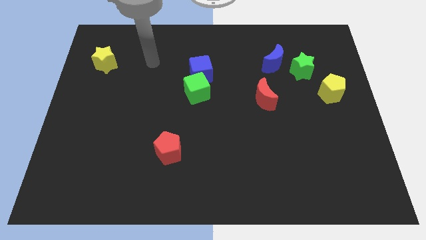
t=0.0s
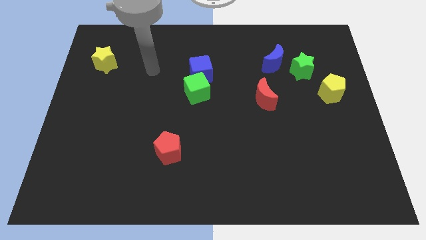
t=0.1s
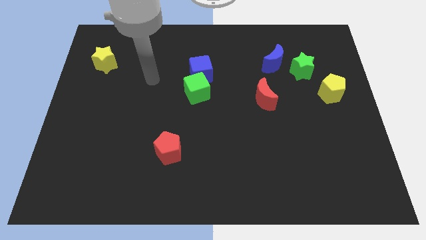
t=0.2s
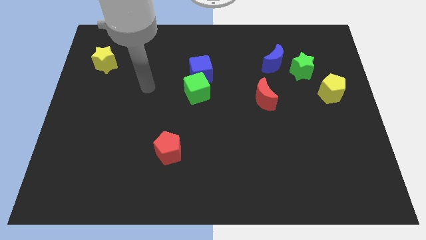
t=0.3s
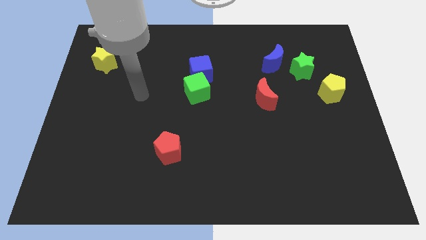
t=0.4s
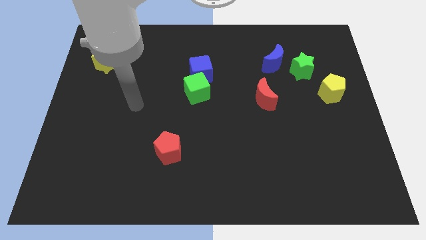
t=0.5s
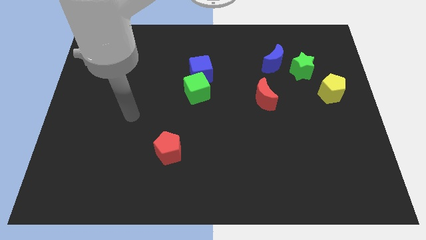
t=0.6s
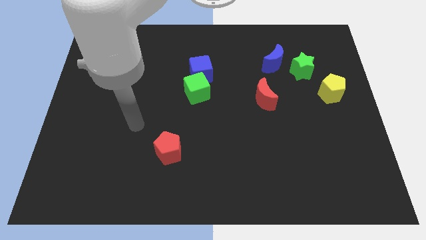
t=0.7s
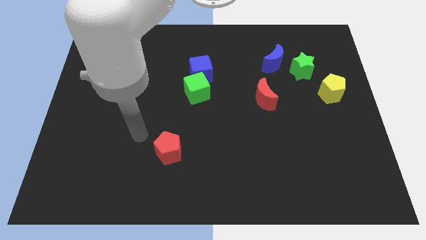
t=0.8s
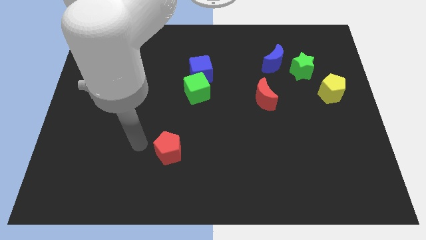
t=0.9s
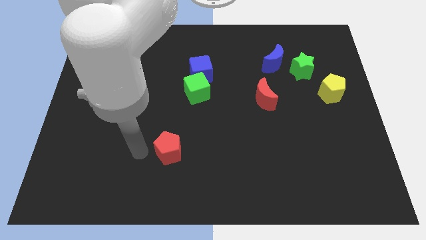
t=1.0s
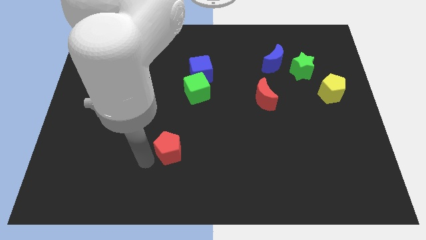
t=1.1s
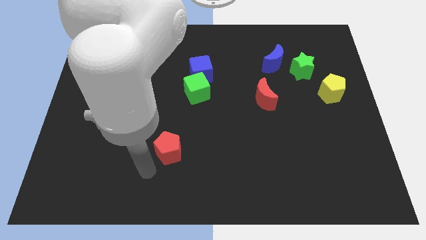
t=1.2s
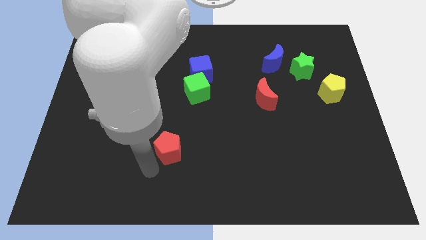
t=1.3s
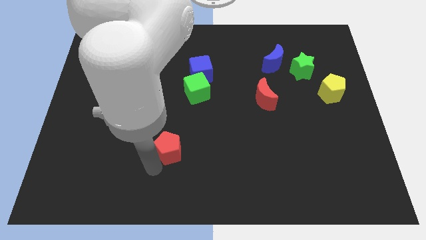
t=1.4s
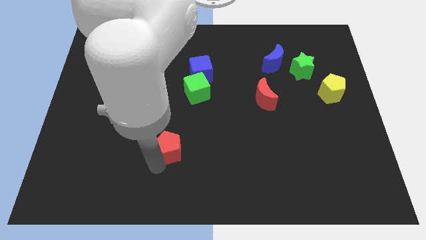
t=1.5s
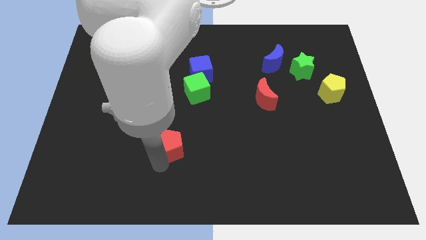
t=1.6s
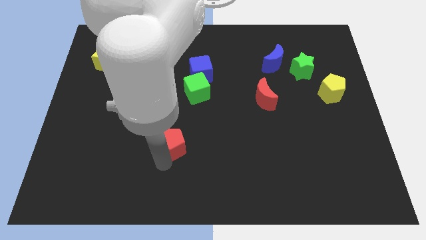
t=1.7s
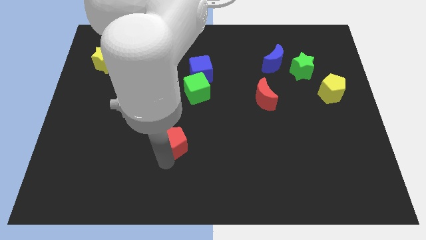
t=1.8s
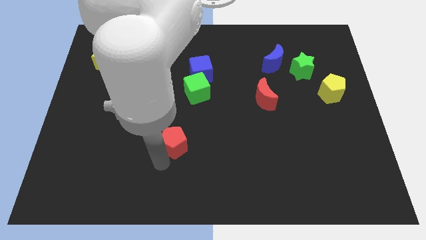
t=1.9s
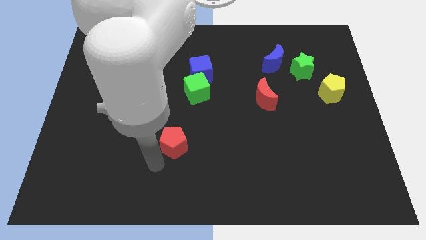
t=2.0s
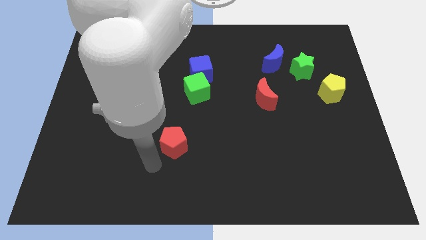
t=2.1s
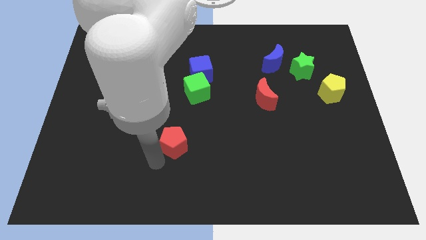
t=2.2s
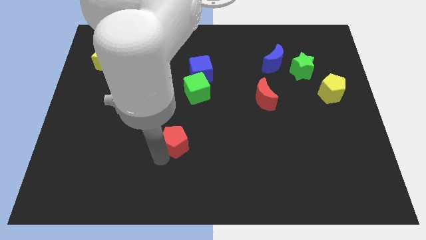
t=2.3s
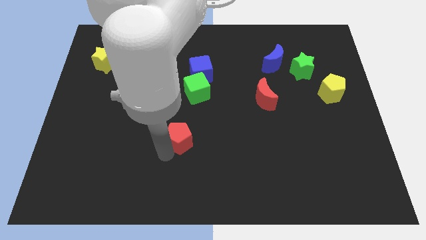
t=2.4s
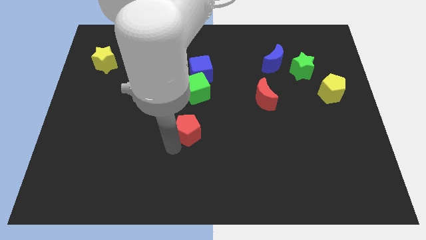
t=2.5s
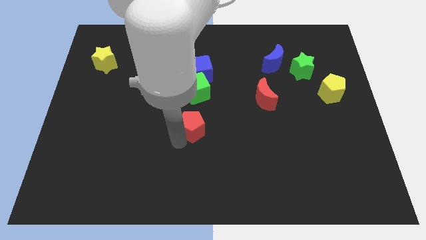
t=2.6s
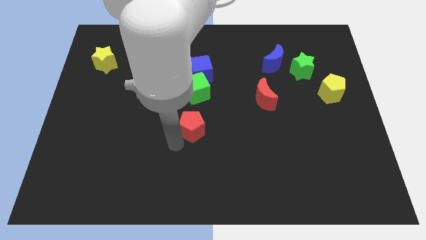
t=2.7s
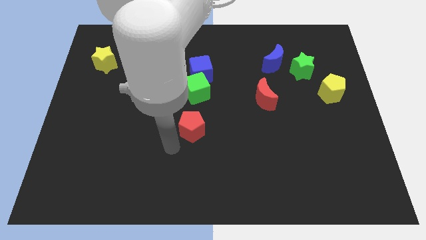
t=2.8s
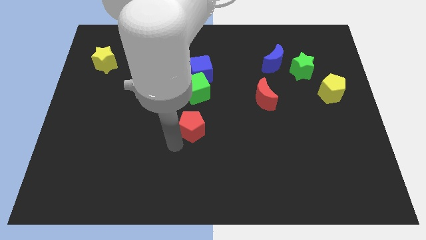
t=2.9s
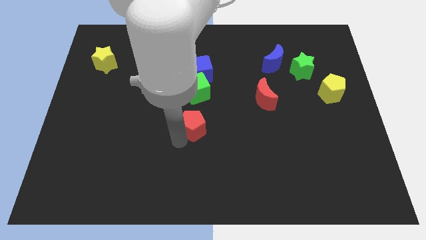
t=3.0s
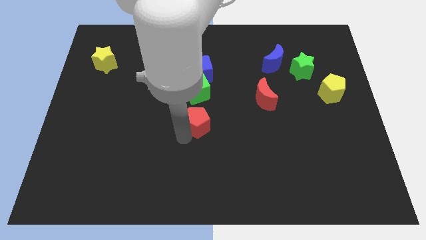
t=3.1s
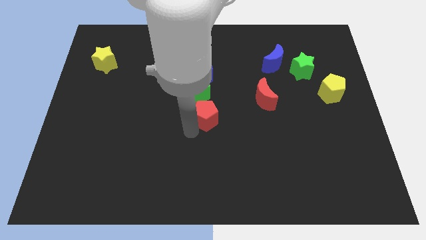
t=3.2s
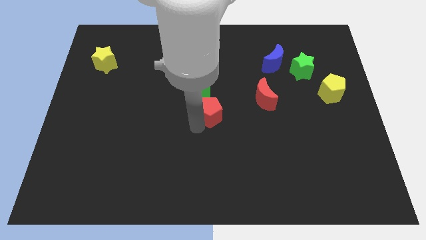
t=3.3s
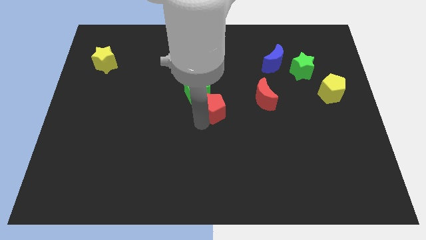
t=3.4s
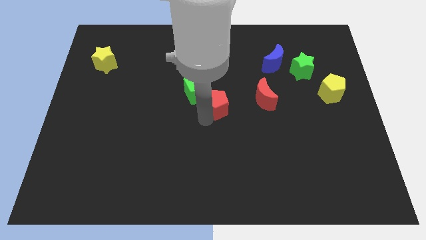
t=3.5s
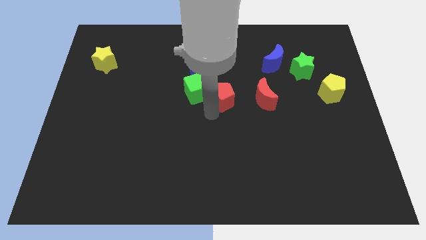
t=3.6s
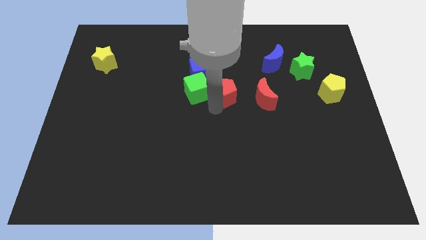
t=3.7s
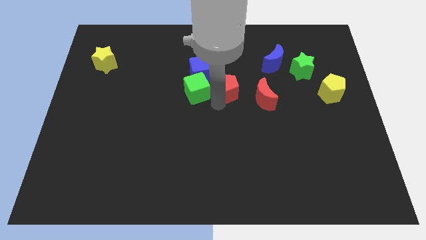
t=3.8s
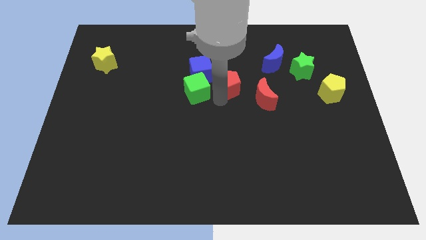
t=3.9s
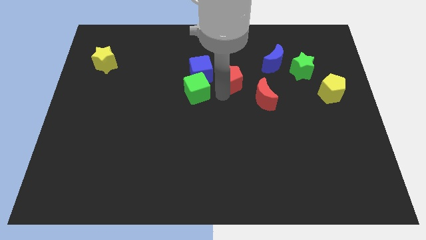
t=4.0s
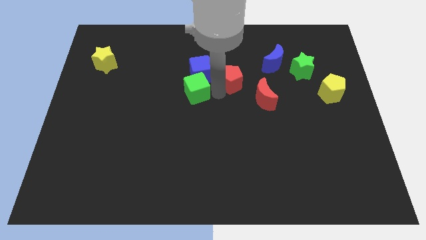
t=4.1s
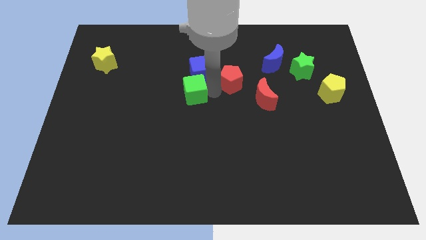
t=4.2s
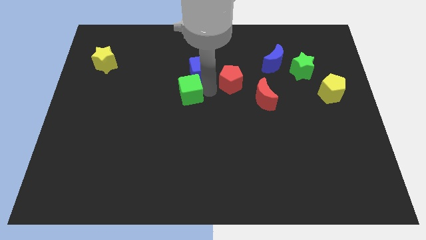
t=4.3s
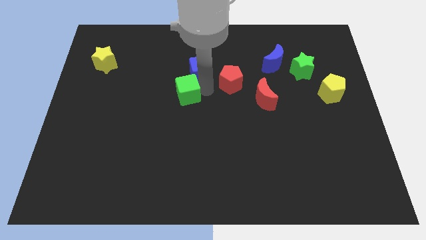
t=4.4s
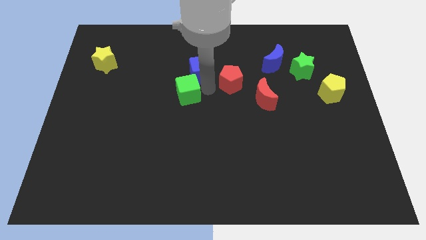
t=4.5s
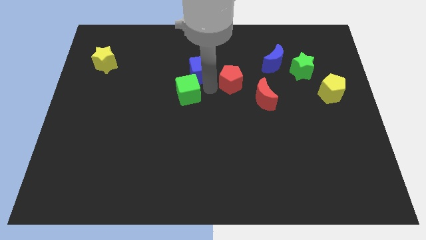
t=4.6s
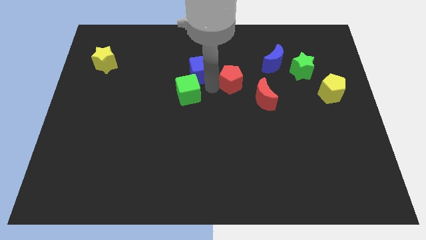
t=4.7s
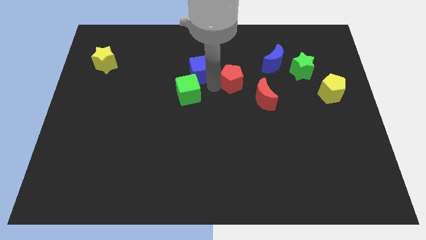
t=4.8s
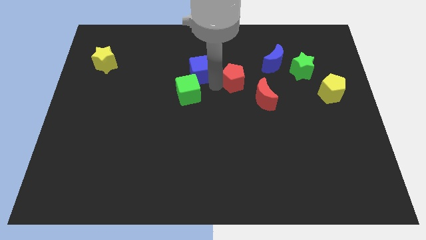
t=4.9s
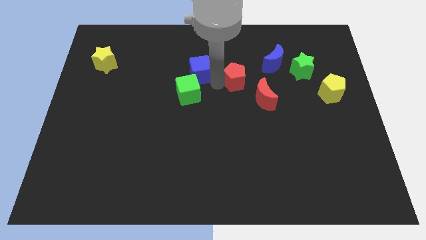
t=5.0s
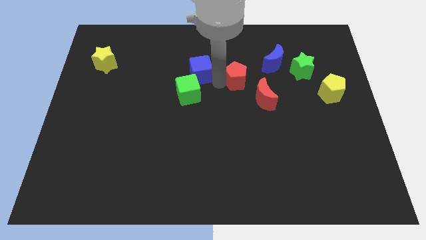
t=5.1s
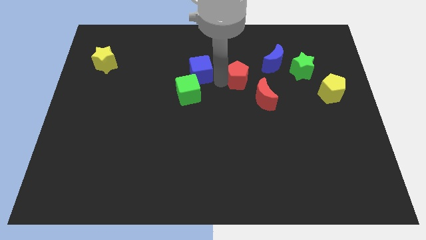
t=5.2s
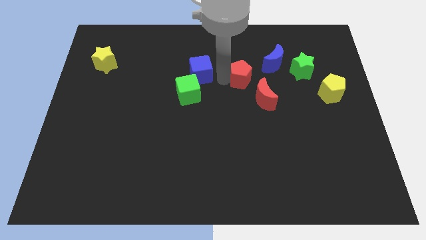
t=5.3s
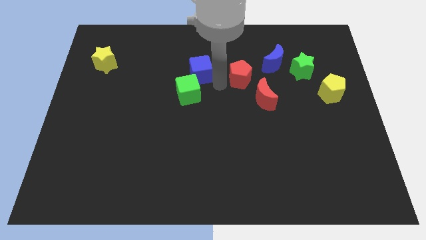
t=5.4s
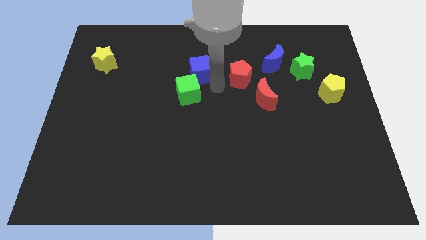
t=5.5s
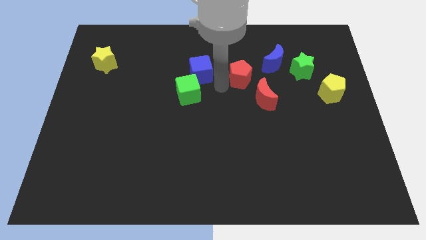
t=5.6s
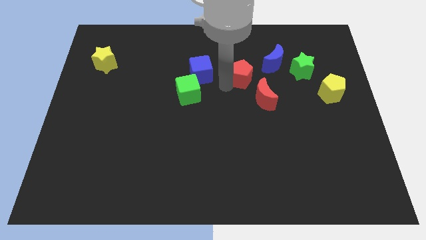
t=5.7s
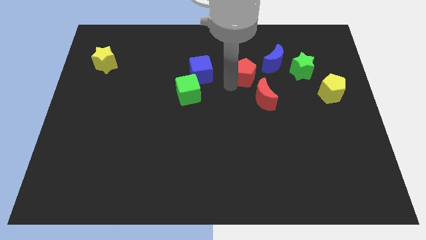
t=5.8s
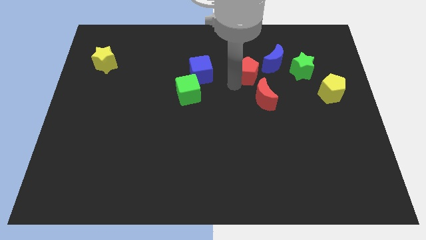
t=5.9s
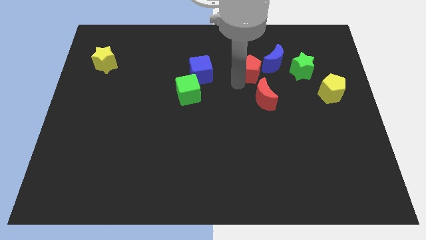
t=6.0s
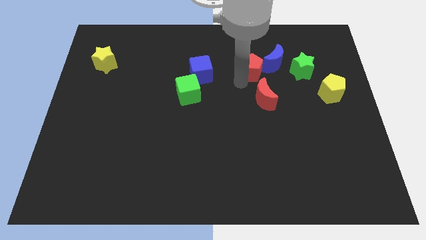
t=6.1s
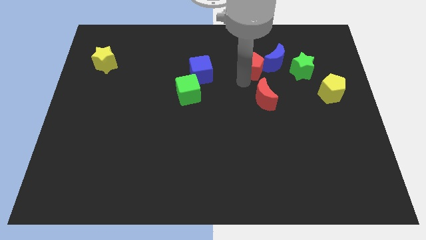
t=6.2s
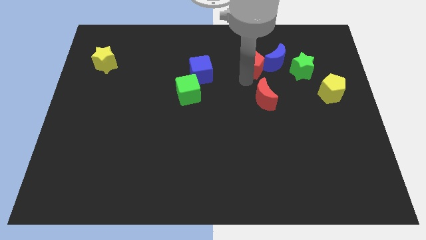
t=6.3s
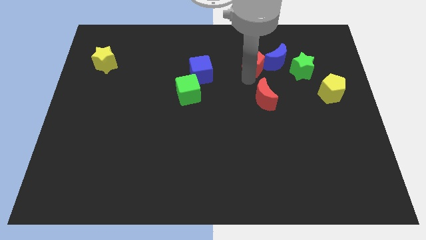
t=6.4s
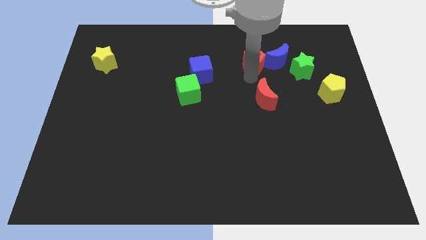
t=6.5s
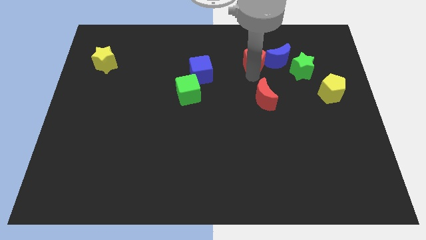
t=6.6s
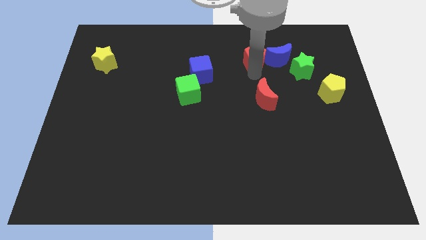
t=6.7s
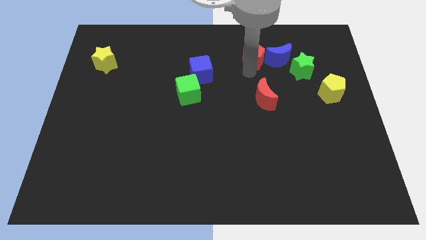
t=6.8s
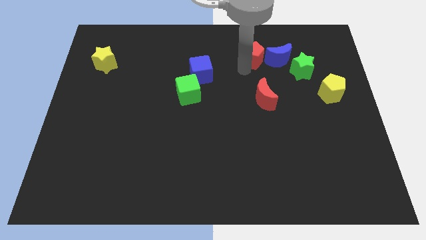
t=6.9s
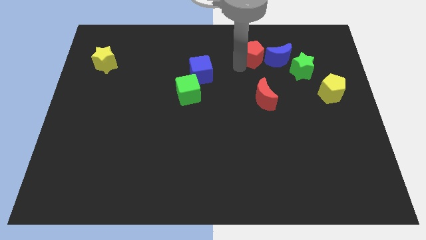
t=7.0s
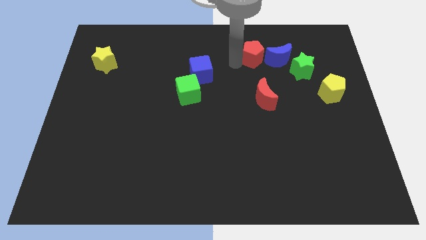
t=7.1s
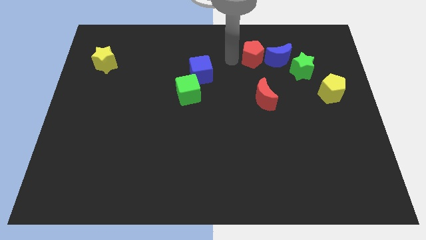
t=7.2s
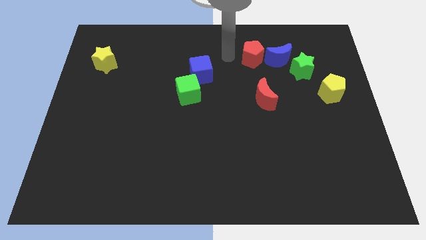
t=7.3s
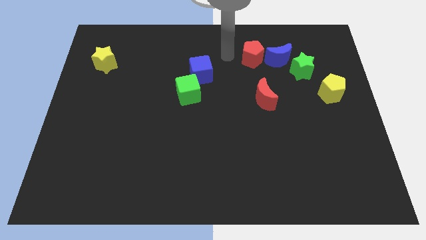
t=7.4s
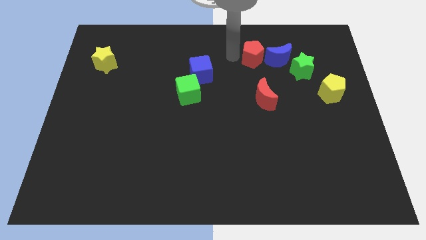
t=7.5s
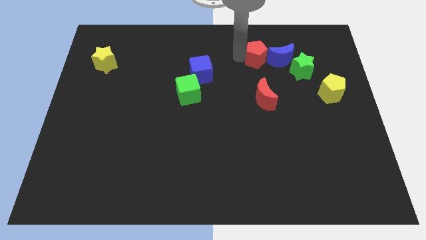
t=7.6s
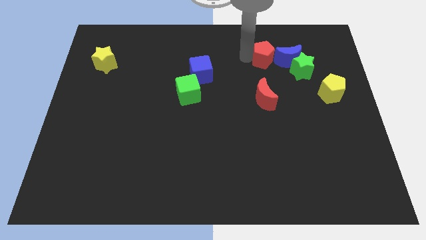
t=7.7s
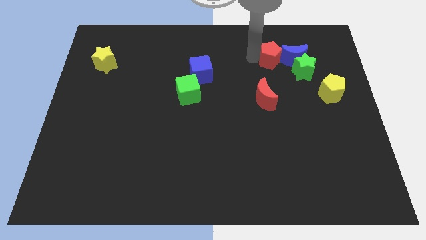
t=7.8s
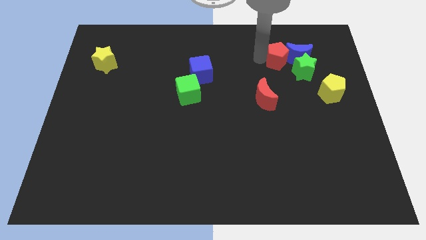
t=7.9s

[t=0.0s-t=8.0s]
put the red pentagon to the blue moon
